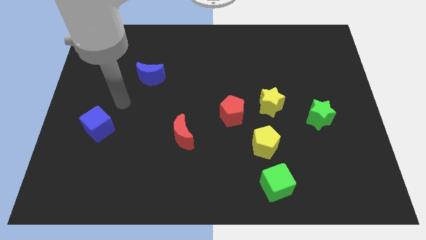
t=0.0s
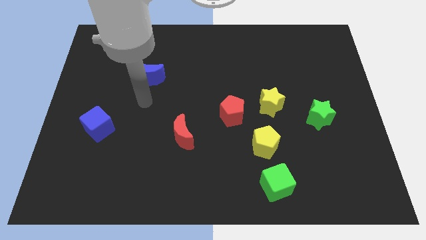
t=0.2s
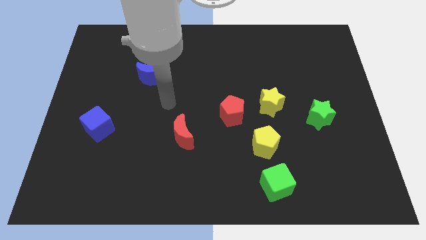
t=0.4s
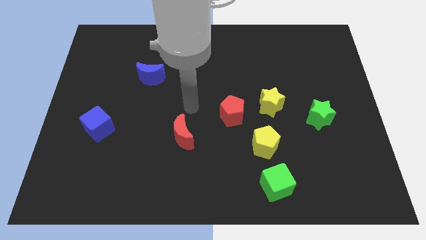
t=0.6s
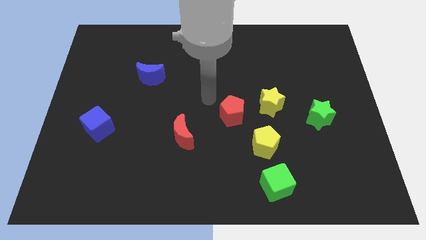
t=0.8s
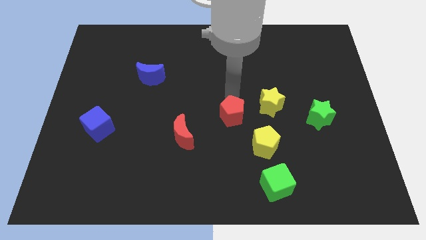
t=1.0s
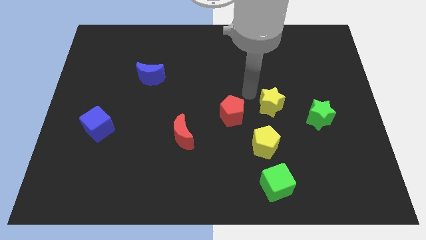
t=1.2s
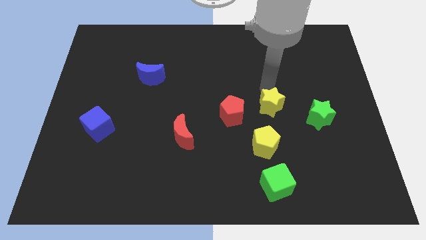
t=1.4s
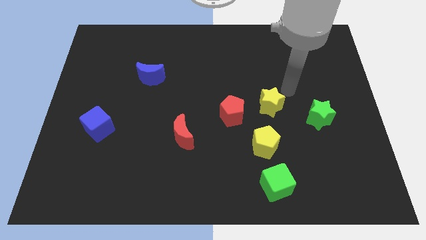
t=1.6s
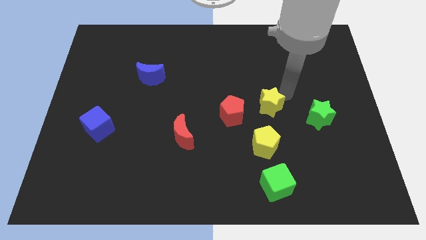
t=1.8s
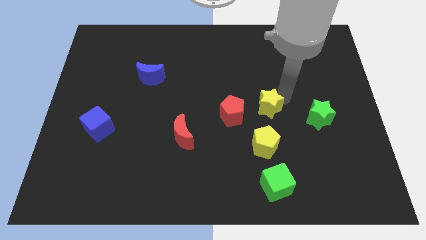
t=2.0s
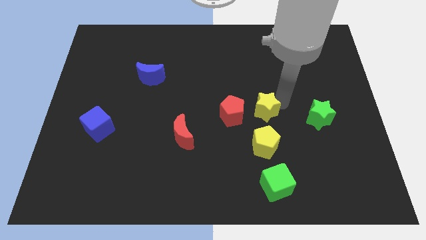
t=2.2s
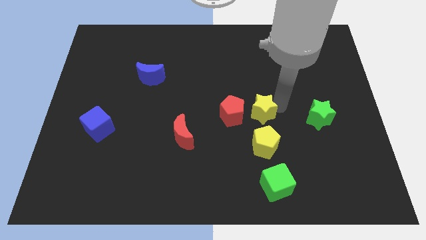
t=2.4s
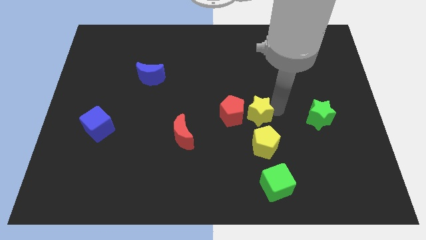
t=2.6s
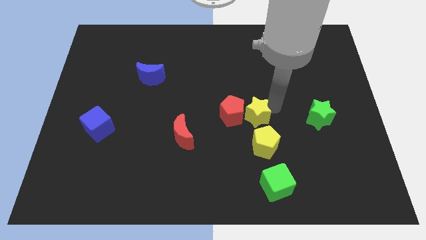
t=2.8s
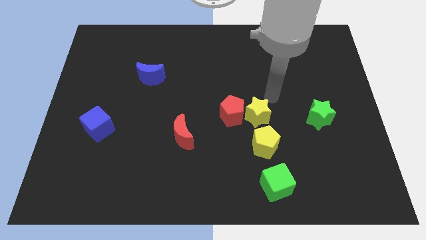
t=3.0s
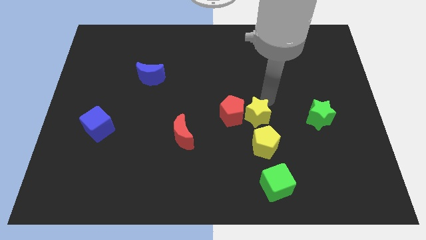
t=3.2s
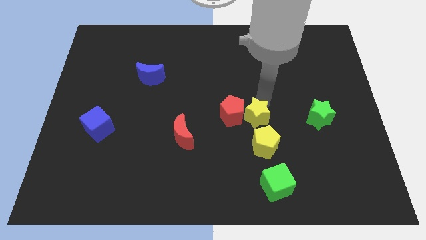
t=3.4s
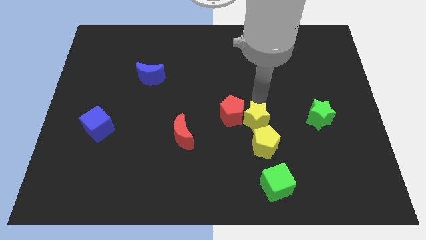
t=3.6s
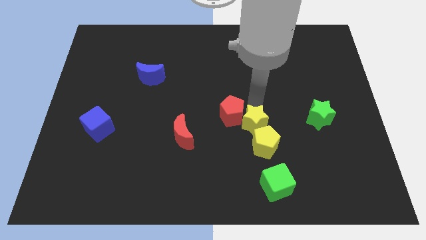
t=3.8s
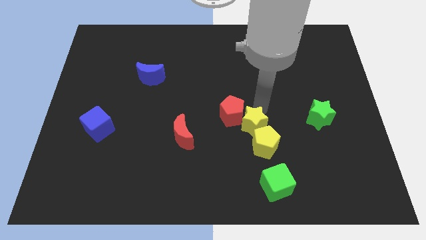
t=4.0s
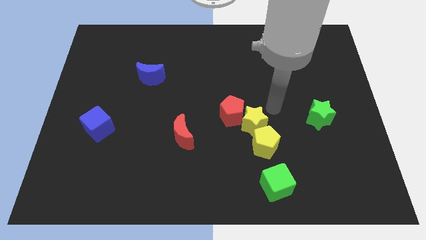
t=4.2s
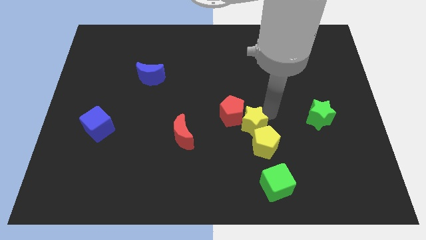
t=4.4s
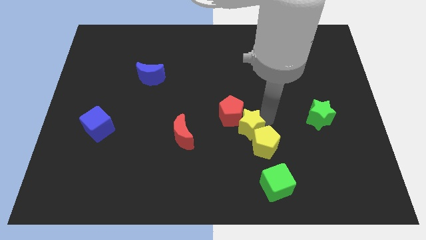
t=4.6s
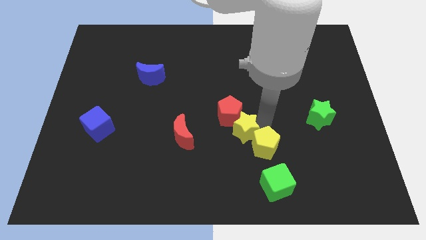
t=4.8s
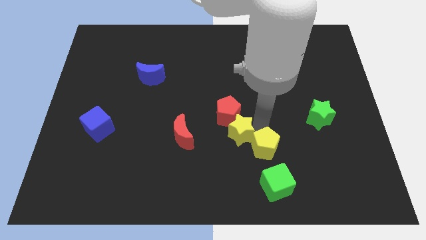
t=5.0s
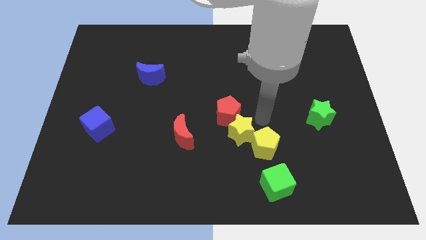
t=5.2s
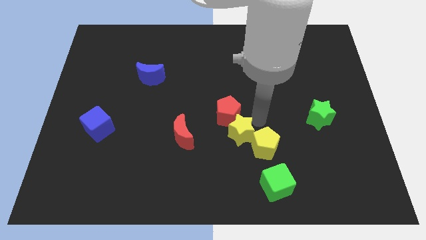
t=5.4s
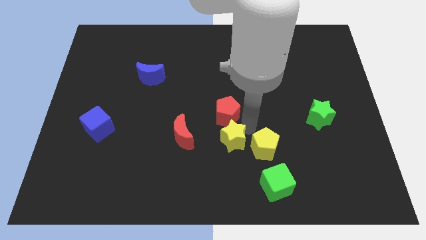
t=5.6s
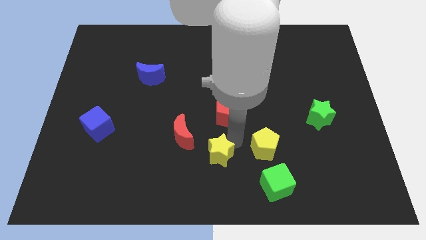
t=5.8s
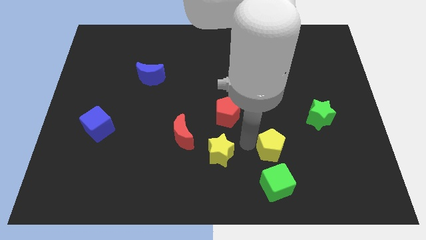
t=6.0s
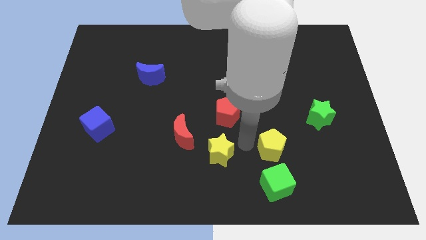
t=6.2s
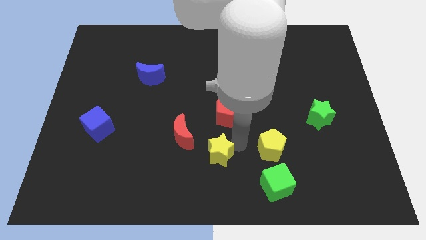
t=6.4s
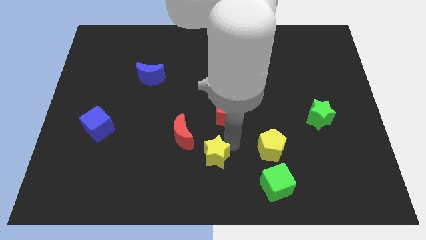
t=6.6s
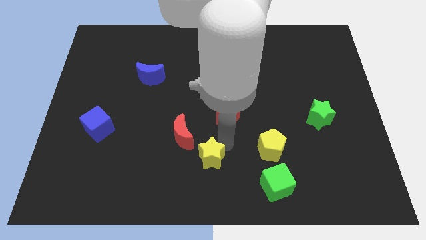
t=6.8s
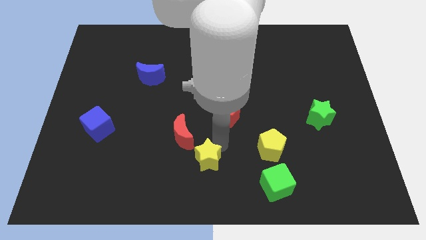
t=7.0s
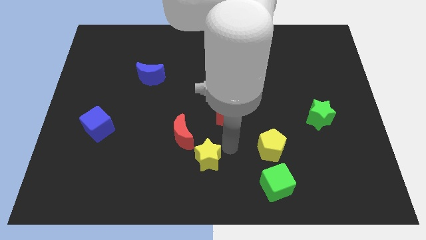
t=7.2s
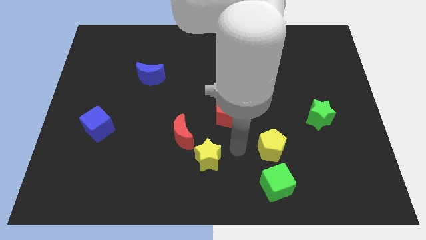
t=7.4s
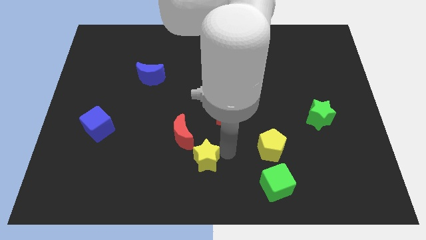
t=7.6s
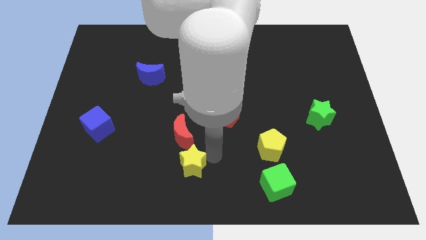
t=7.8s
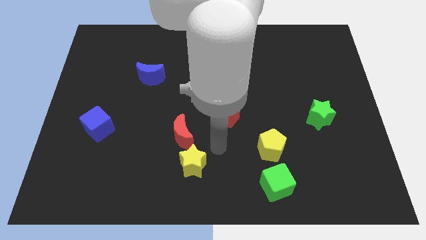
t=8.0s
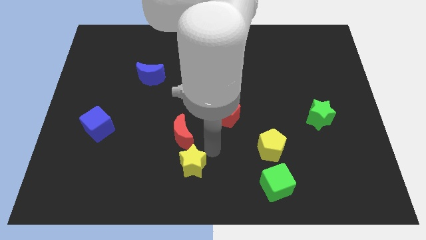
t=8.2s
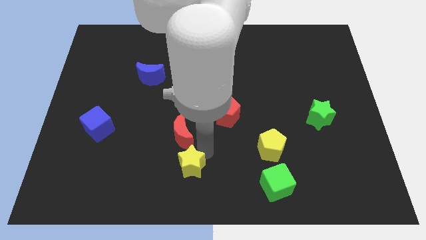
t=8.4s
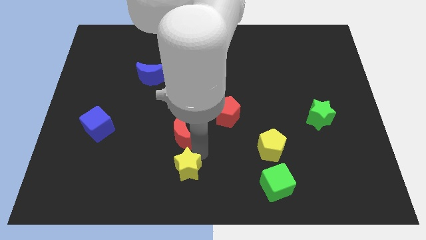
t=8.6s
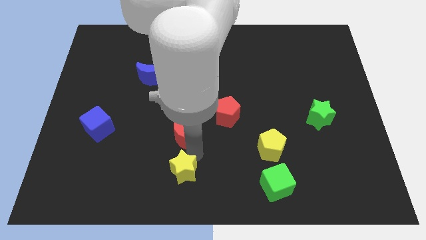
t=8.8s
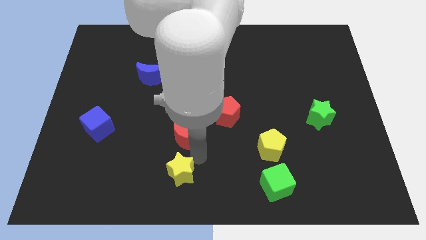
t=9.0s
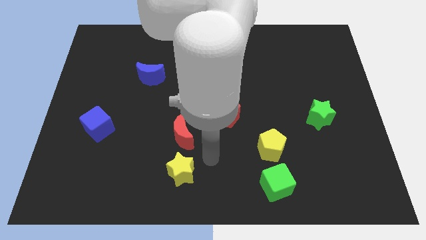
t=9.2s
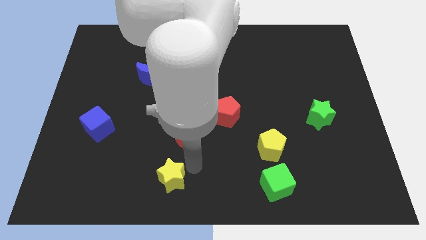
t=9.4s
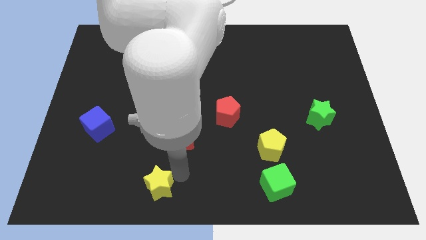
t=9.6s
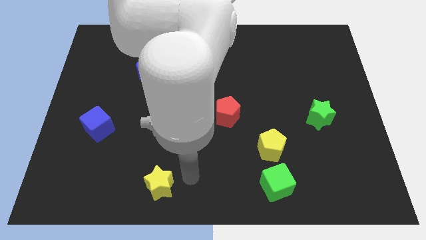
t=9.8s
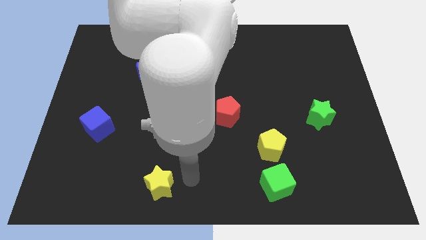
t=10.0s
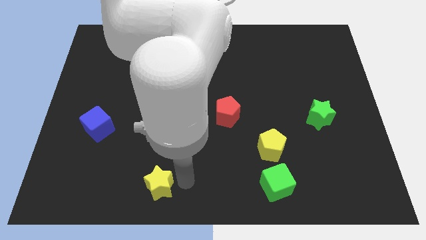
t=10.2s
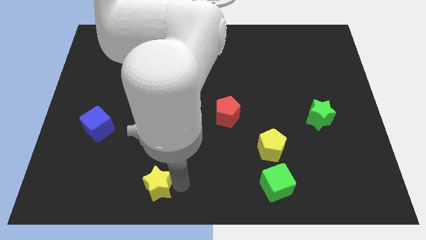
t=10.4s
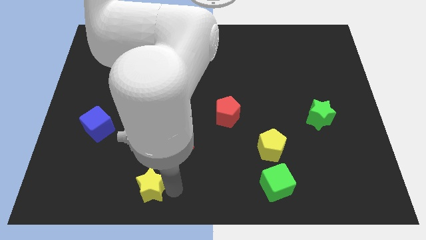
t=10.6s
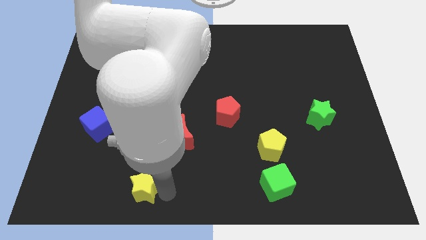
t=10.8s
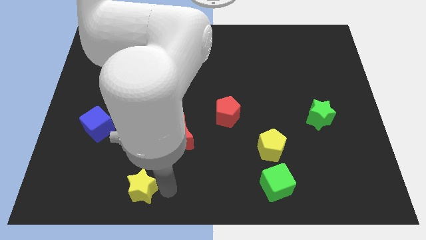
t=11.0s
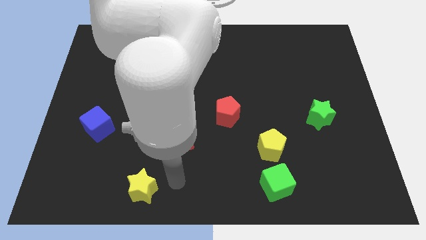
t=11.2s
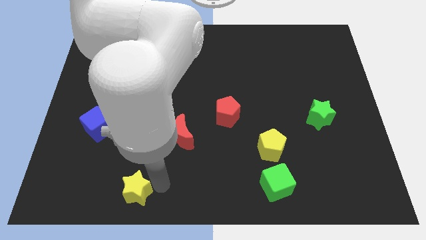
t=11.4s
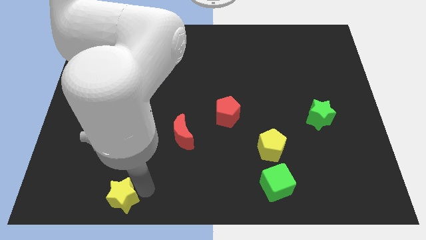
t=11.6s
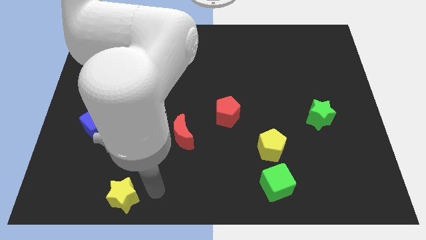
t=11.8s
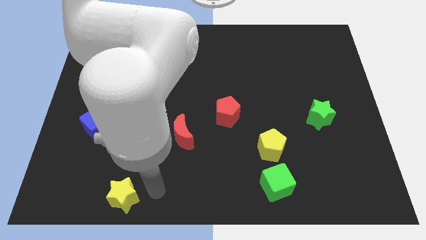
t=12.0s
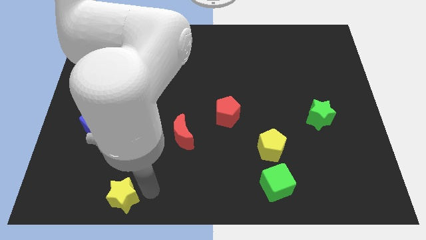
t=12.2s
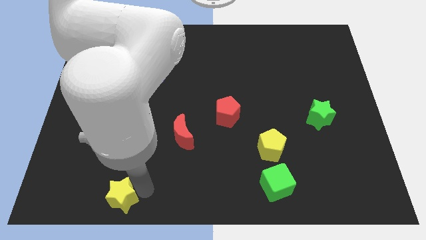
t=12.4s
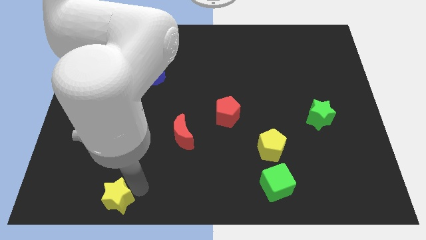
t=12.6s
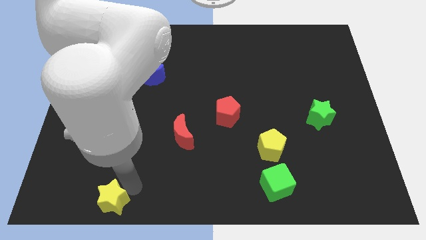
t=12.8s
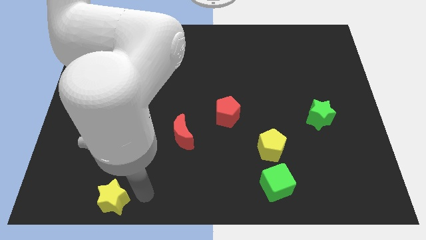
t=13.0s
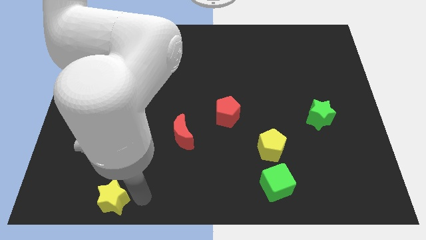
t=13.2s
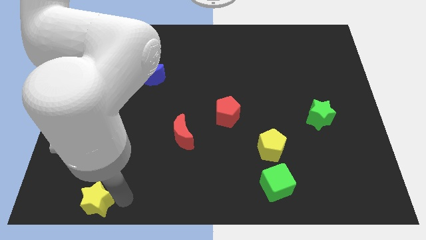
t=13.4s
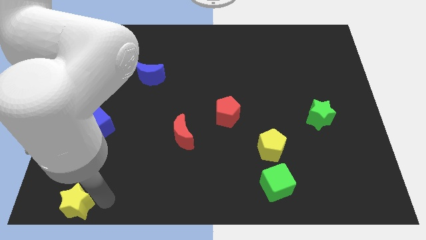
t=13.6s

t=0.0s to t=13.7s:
push the yellow star to the bottom left corner

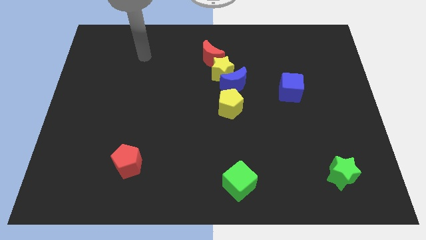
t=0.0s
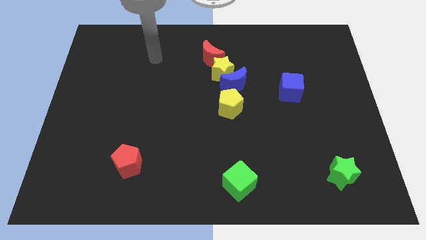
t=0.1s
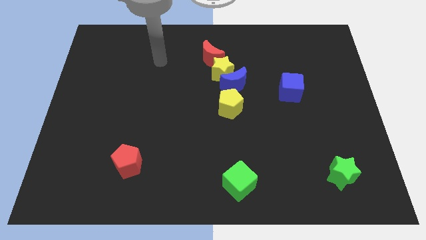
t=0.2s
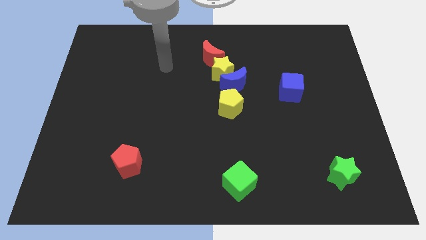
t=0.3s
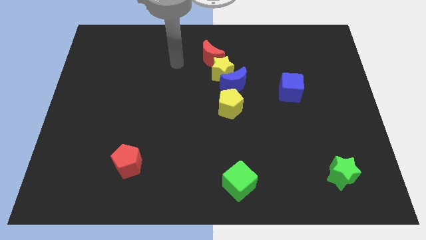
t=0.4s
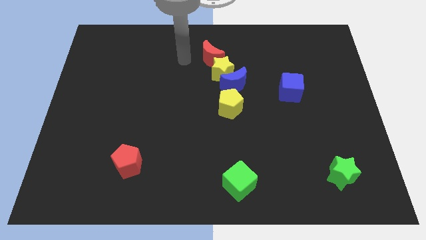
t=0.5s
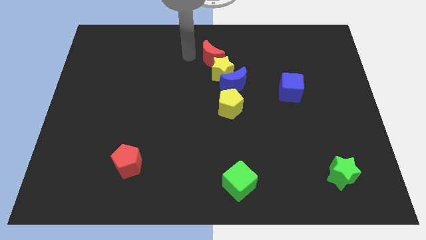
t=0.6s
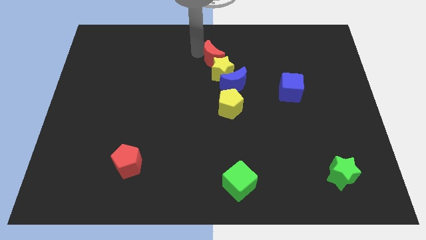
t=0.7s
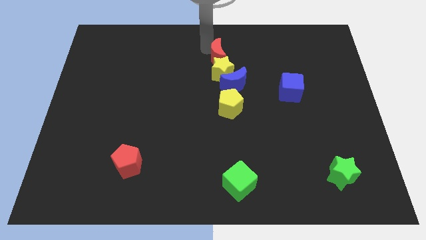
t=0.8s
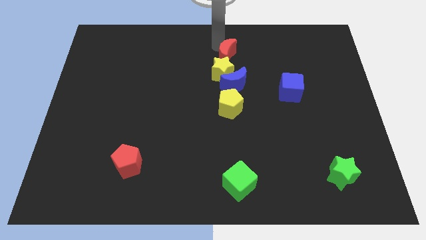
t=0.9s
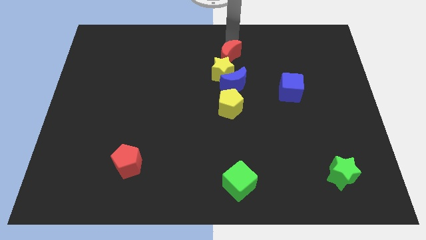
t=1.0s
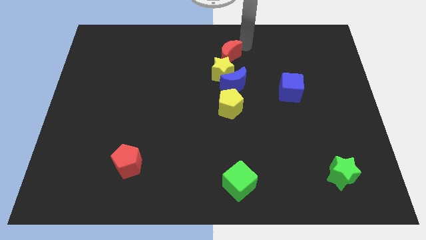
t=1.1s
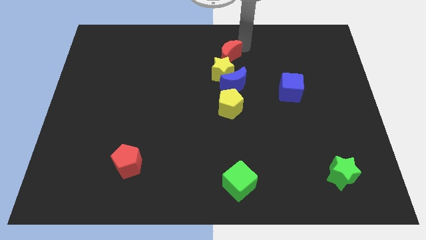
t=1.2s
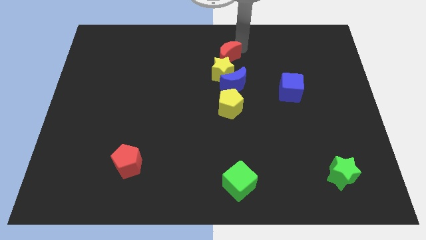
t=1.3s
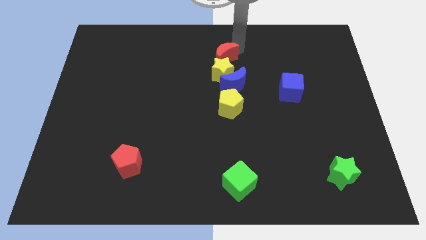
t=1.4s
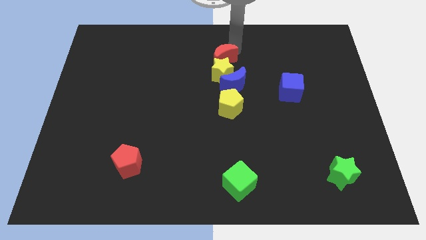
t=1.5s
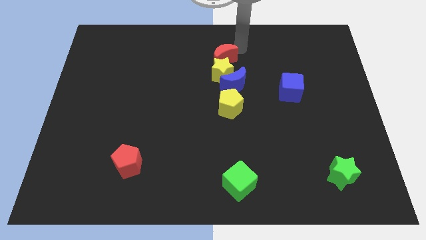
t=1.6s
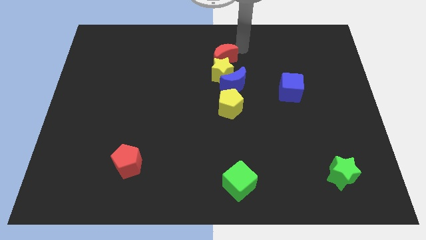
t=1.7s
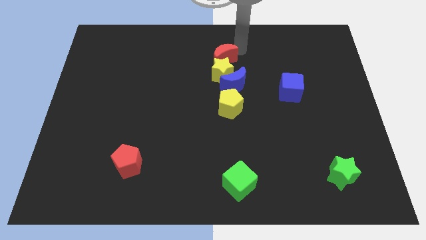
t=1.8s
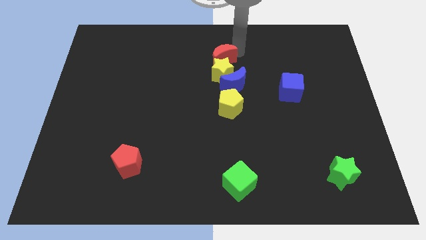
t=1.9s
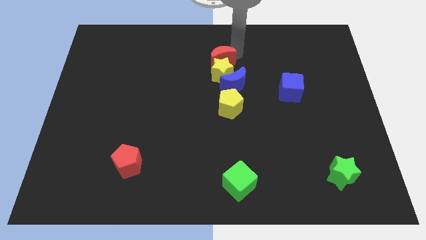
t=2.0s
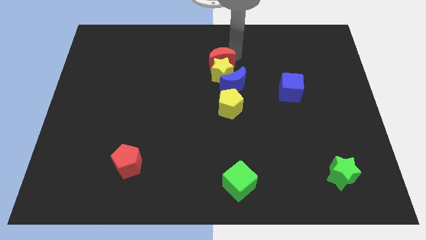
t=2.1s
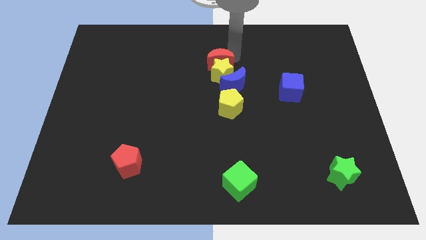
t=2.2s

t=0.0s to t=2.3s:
push the red moon to the middle of the board
